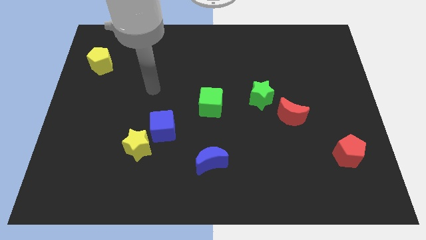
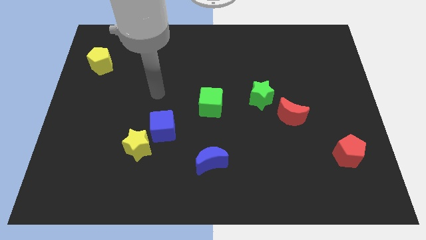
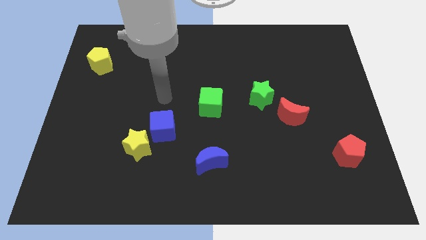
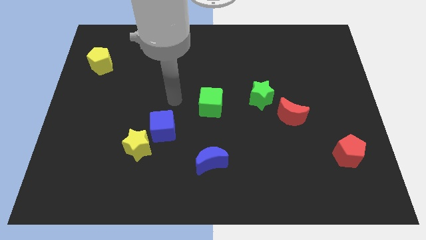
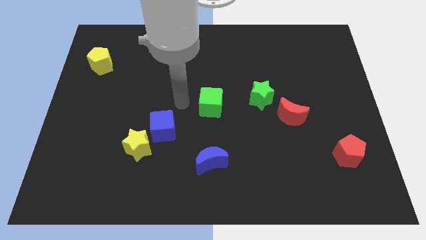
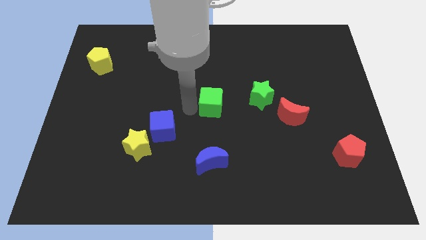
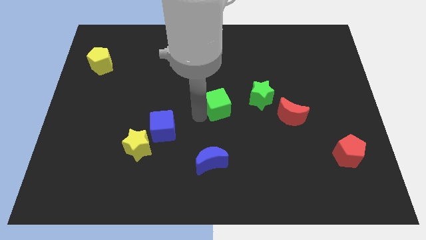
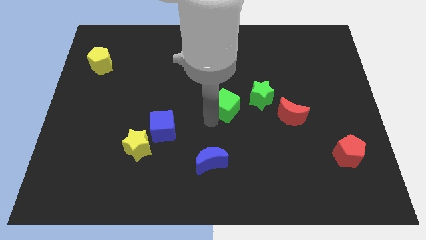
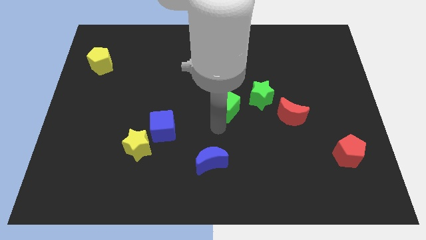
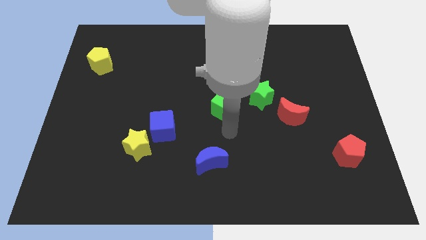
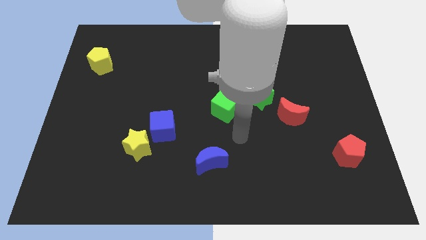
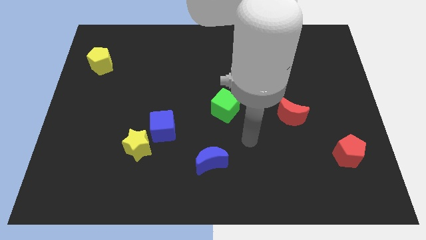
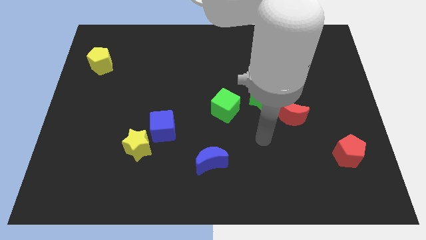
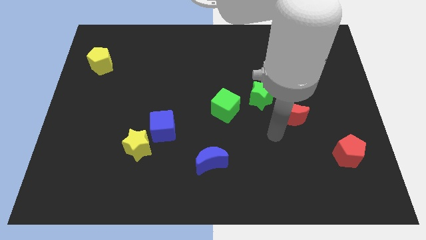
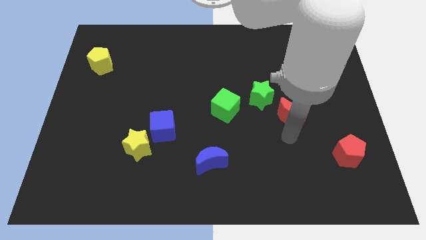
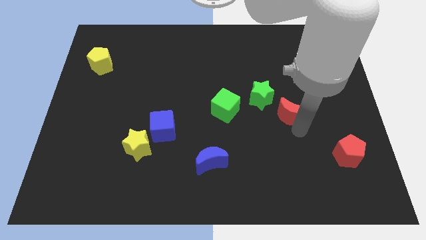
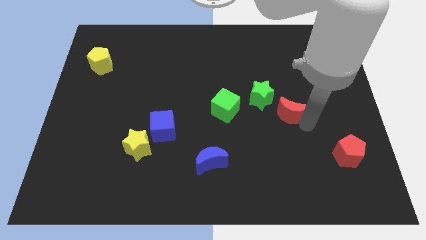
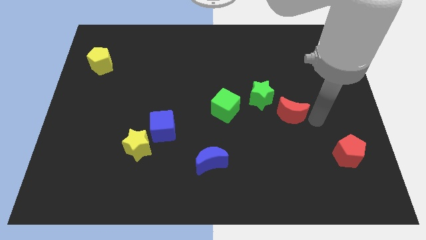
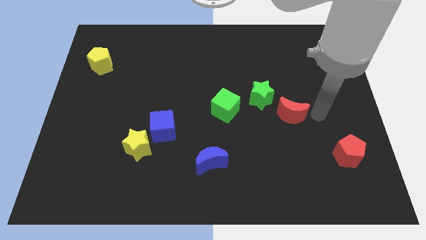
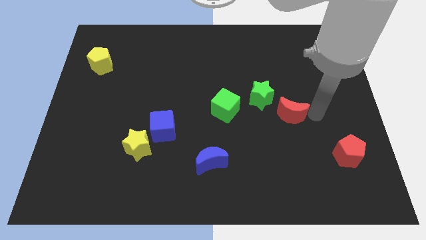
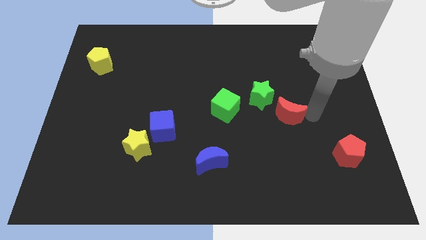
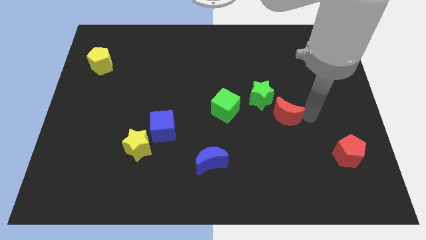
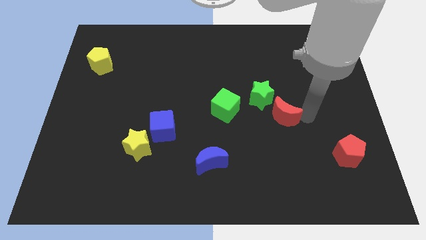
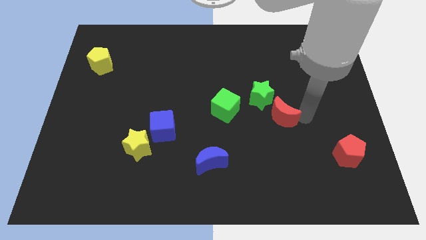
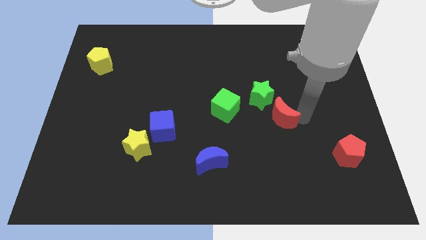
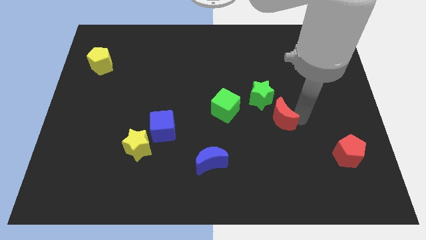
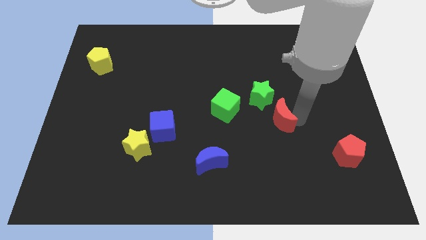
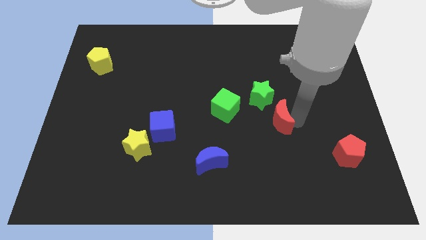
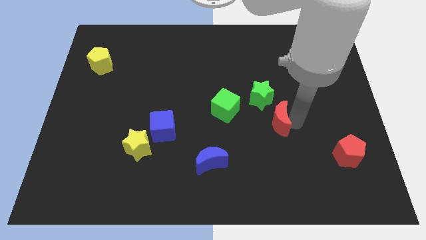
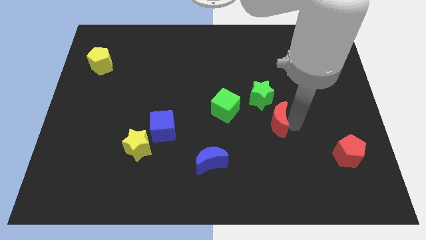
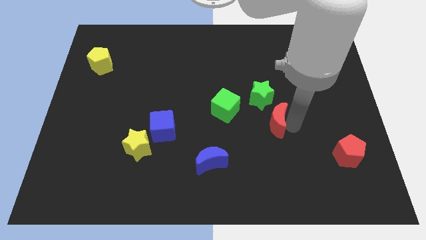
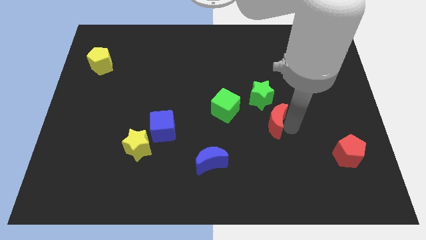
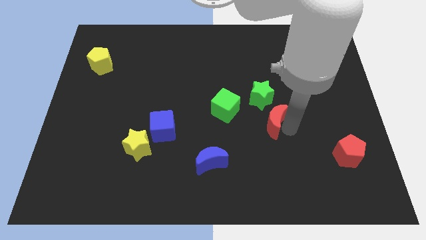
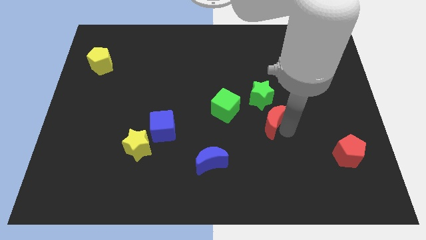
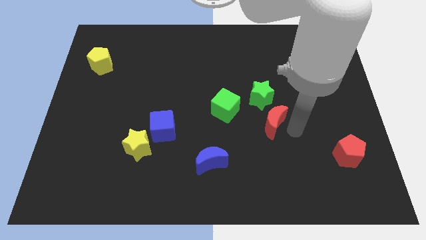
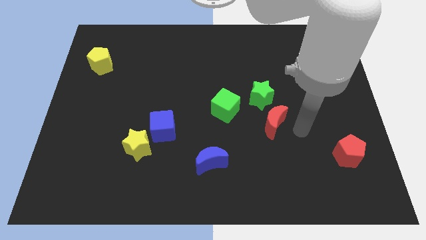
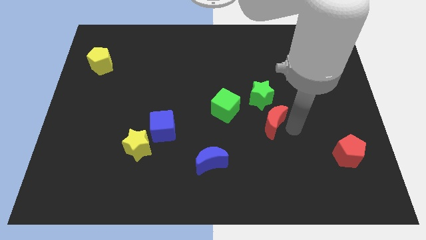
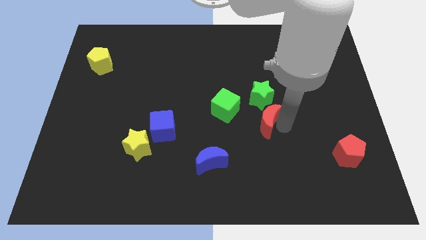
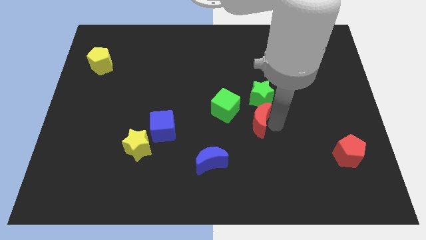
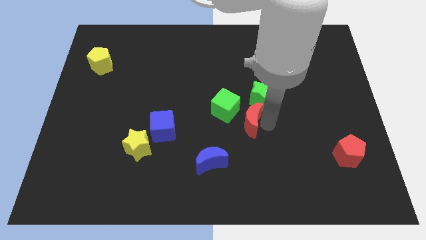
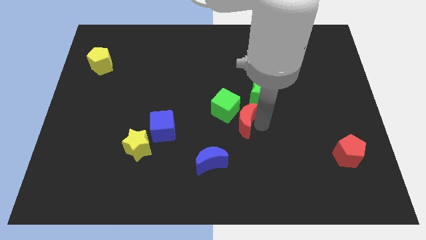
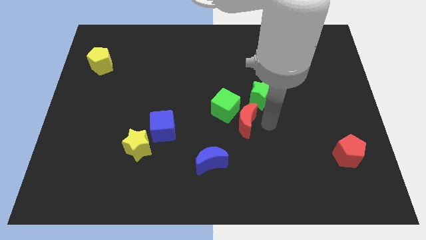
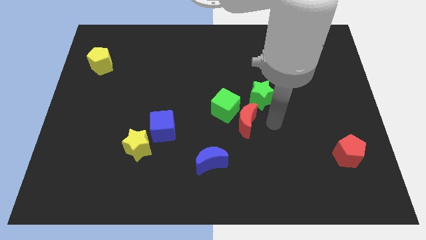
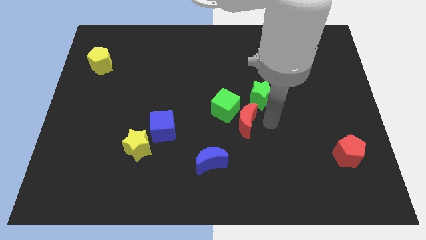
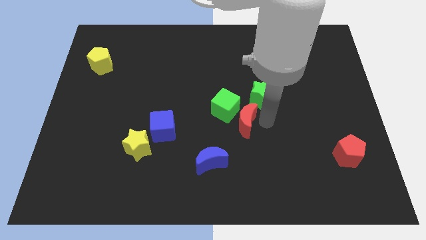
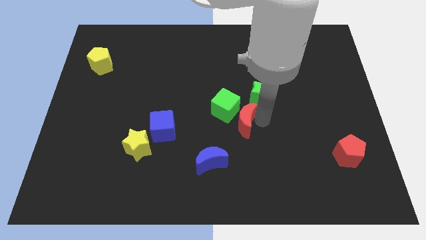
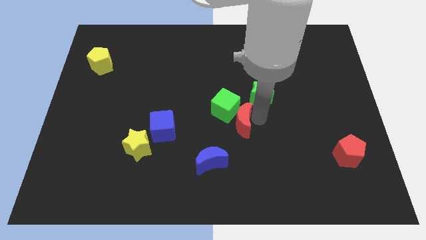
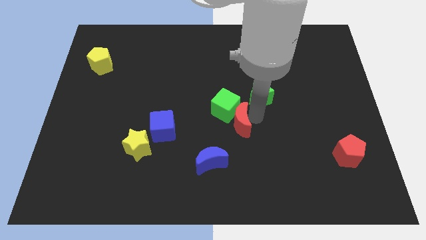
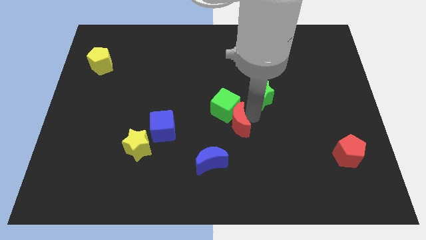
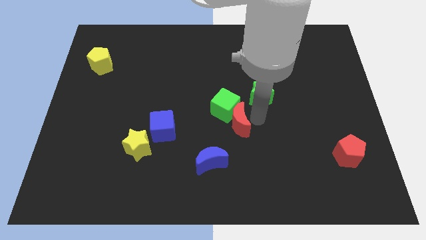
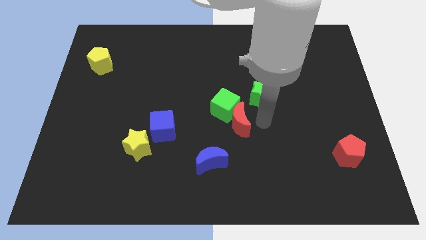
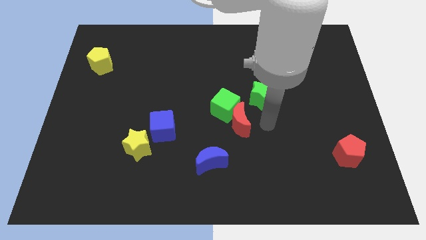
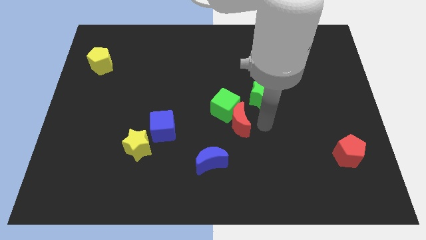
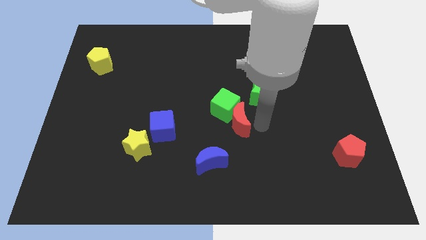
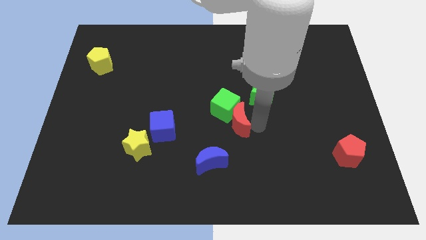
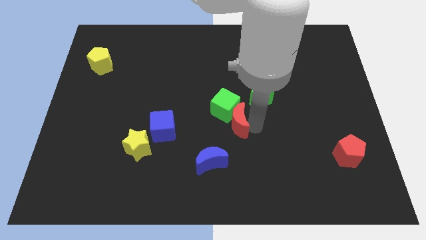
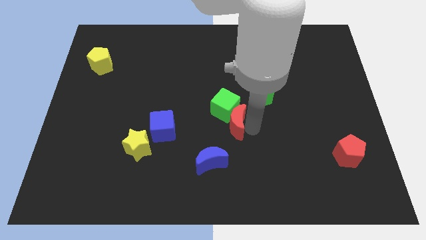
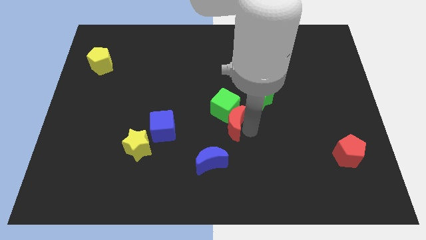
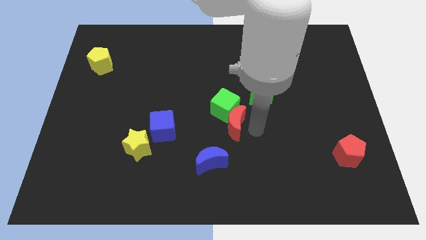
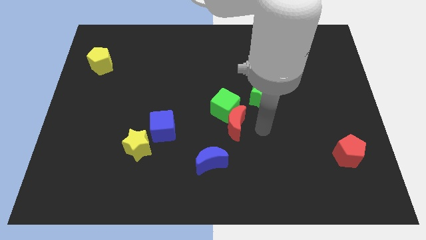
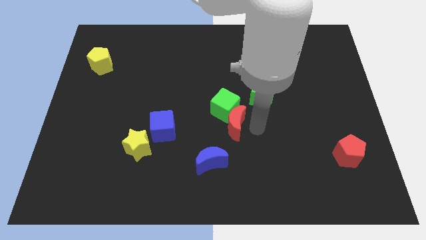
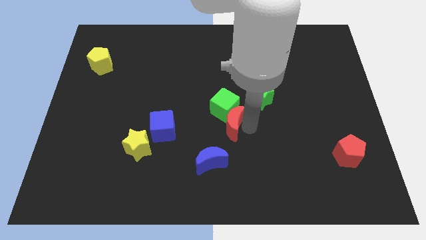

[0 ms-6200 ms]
slide the red moon to the top side of the blue moon

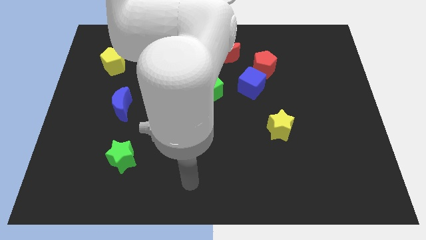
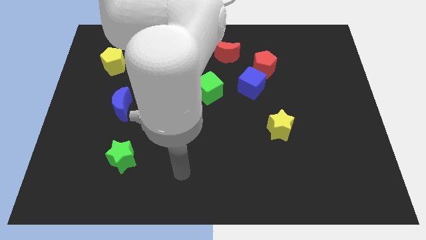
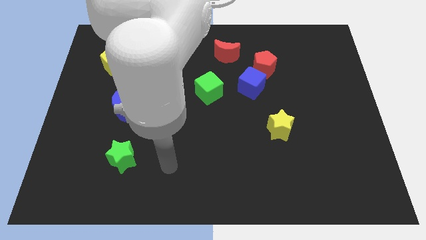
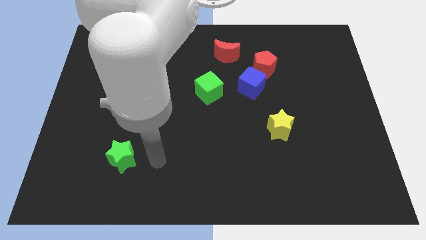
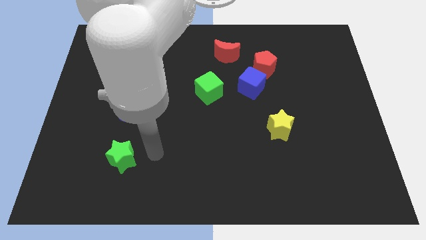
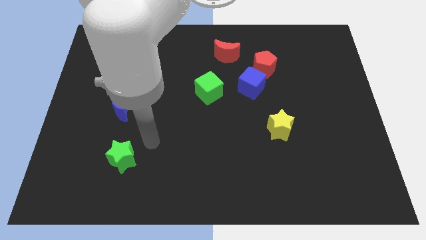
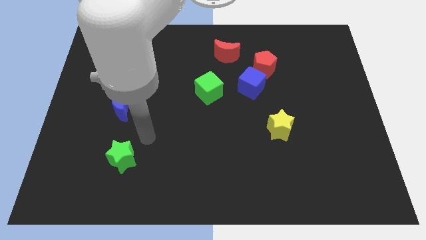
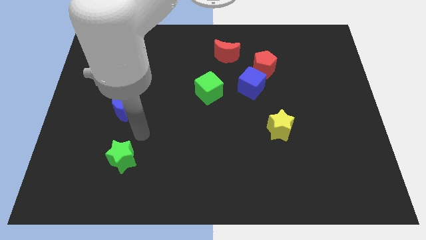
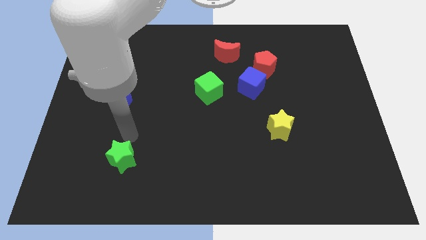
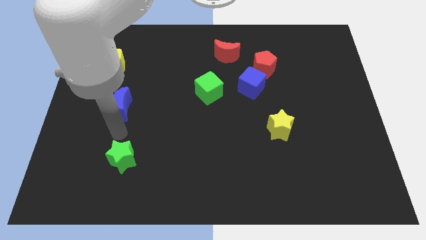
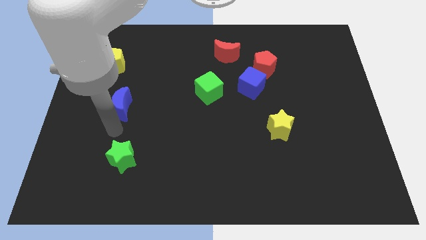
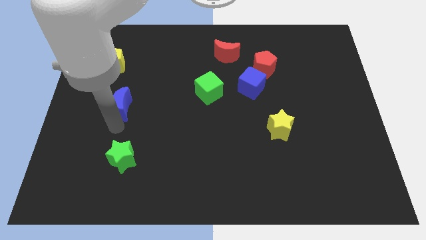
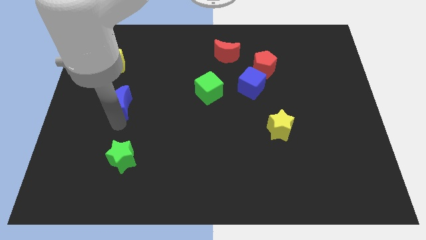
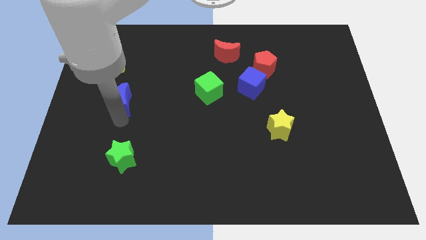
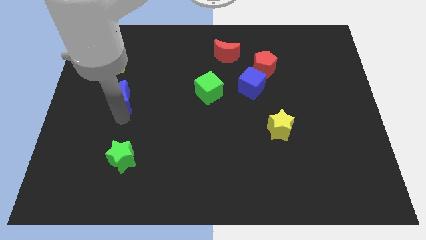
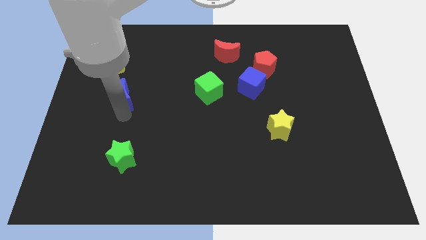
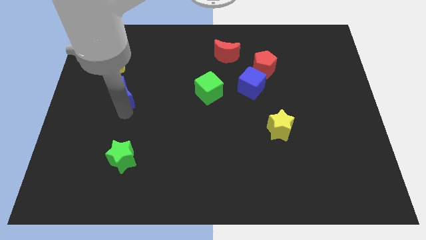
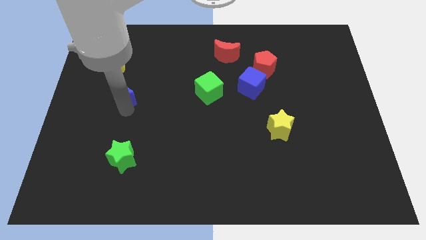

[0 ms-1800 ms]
push the blue moon diagonally down and to the right of the yellow pentagon
